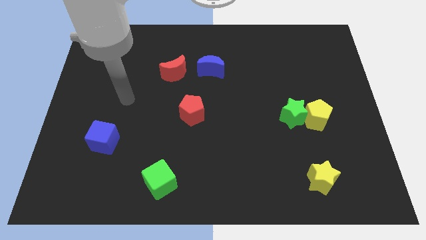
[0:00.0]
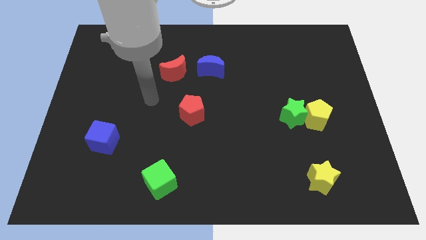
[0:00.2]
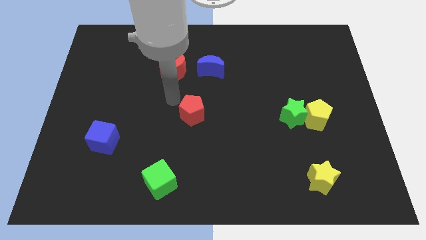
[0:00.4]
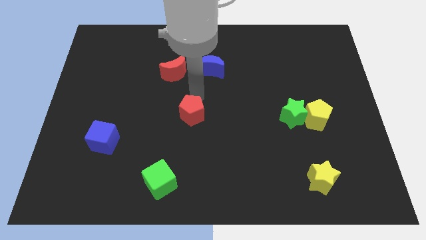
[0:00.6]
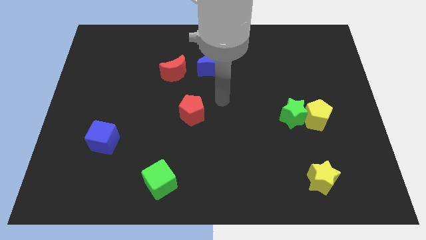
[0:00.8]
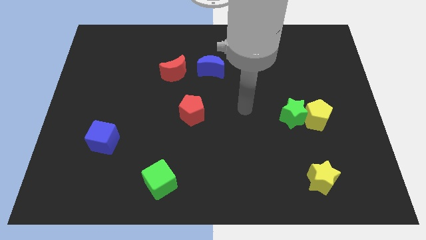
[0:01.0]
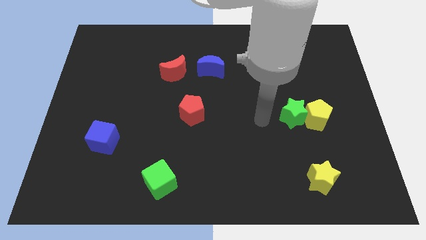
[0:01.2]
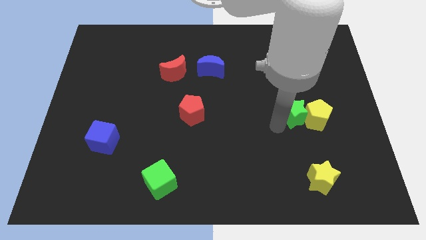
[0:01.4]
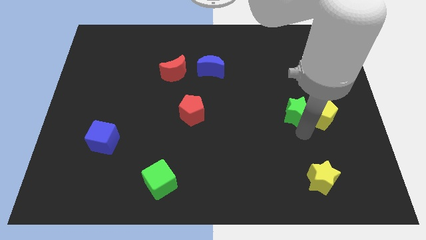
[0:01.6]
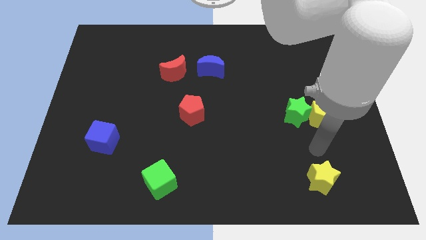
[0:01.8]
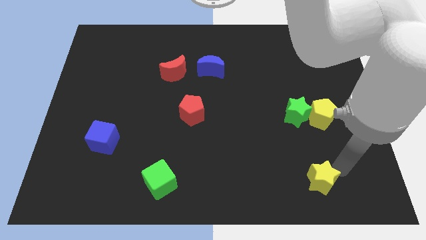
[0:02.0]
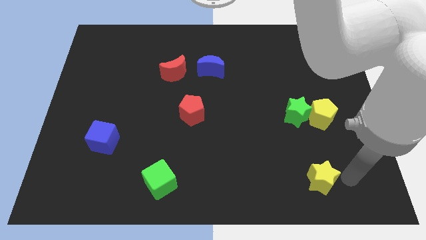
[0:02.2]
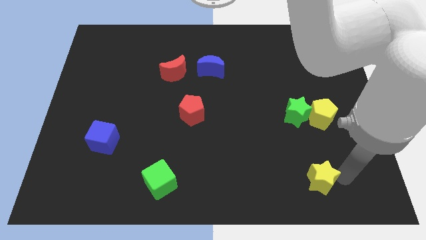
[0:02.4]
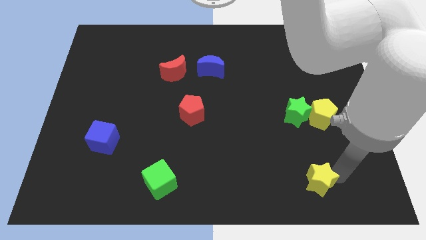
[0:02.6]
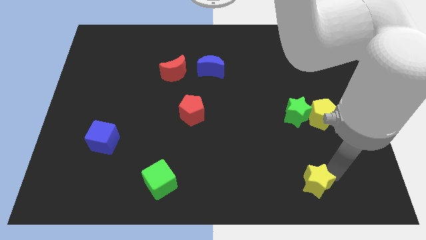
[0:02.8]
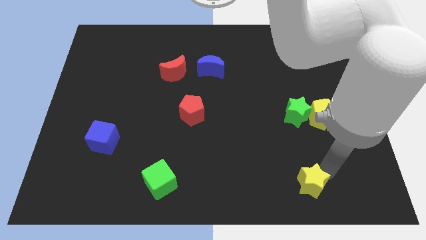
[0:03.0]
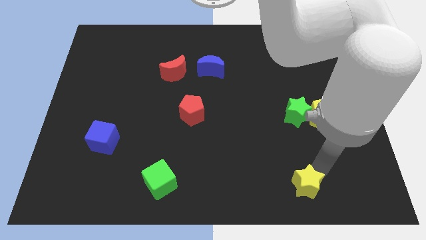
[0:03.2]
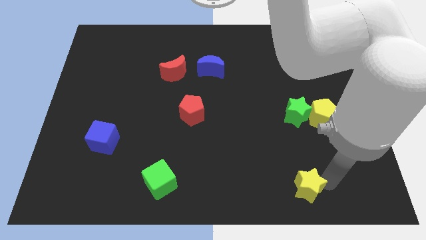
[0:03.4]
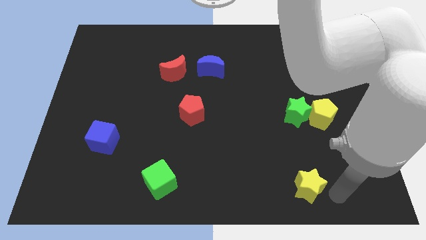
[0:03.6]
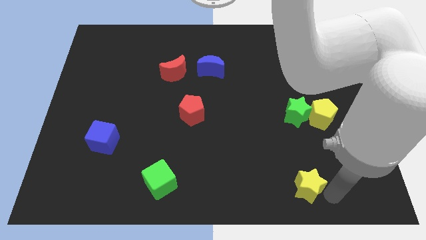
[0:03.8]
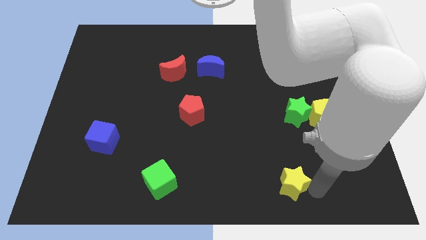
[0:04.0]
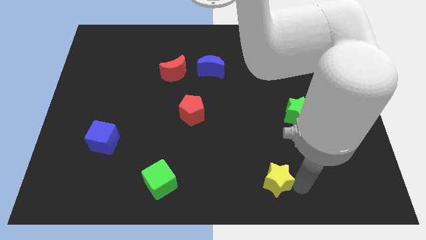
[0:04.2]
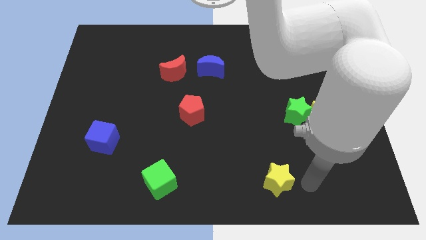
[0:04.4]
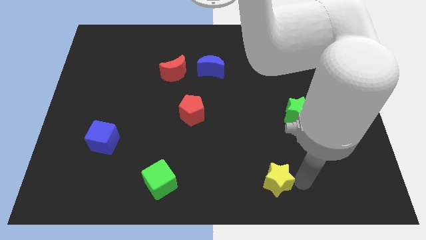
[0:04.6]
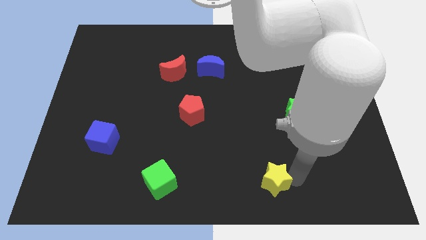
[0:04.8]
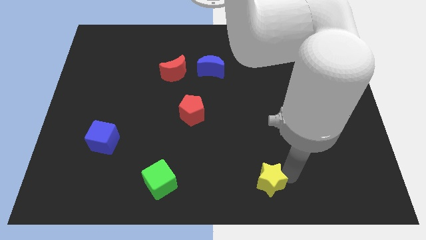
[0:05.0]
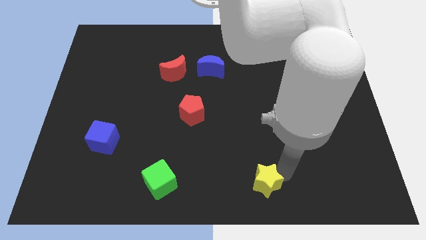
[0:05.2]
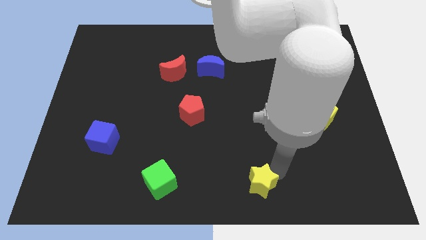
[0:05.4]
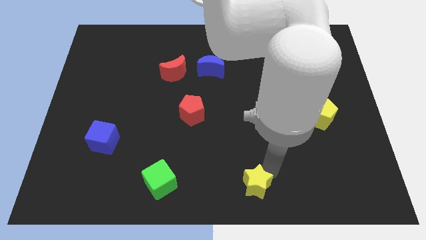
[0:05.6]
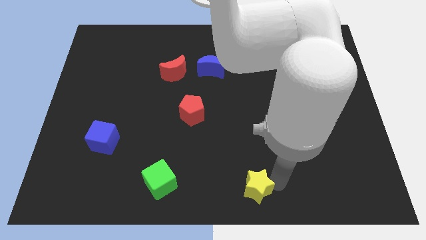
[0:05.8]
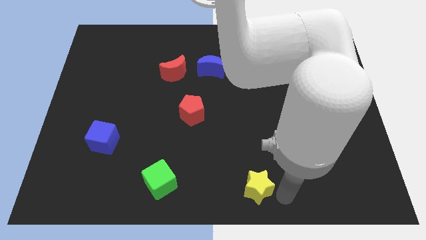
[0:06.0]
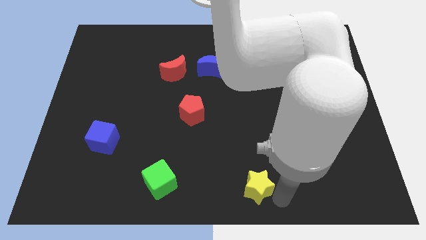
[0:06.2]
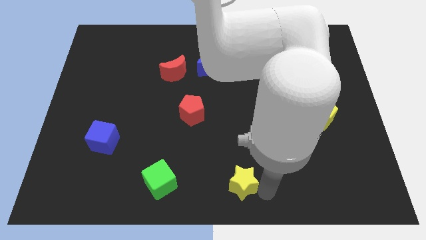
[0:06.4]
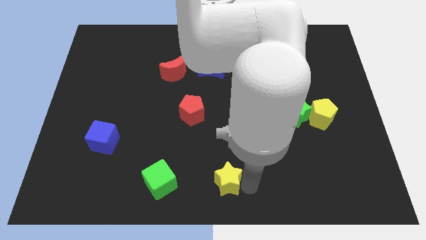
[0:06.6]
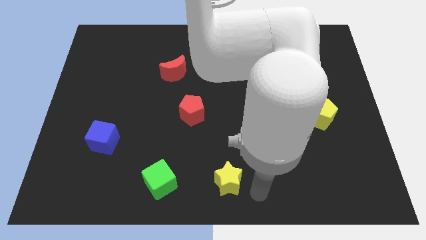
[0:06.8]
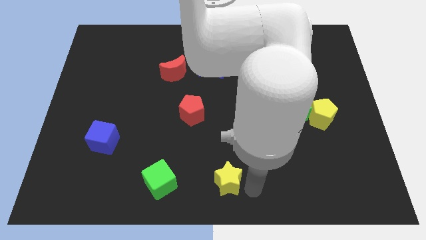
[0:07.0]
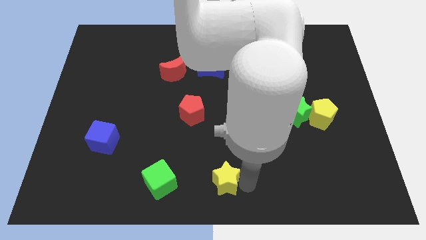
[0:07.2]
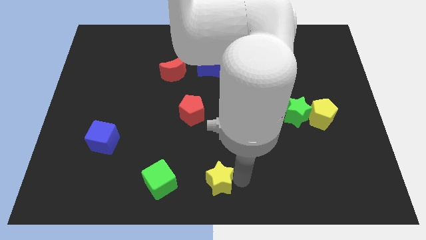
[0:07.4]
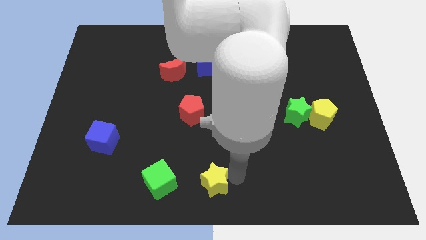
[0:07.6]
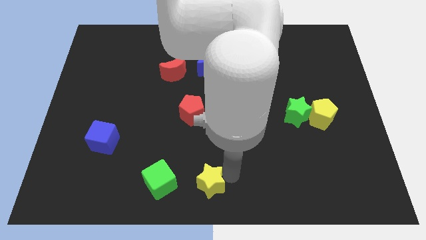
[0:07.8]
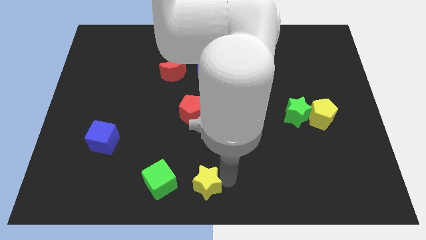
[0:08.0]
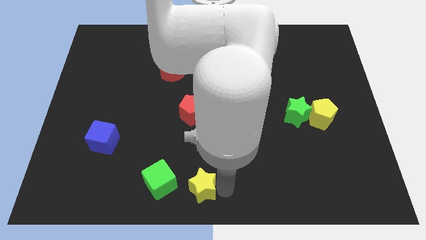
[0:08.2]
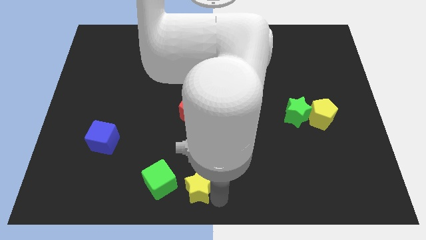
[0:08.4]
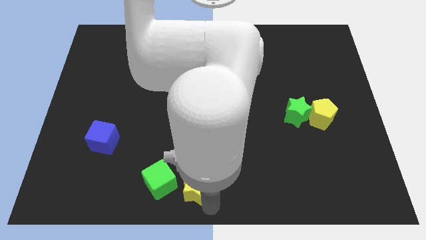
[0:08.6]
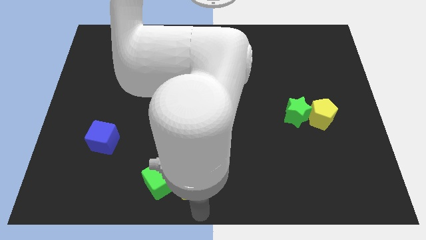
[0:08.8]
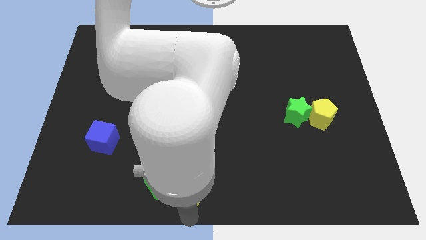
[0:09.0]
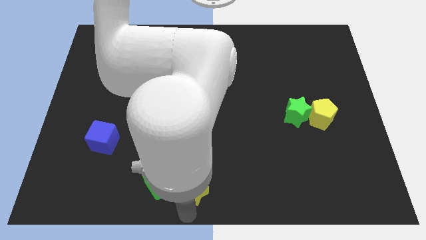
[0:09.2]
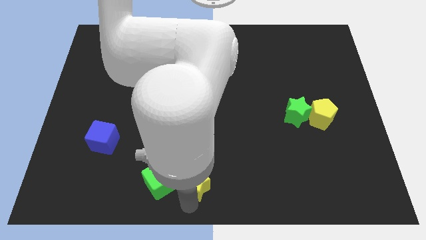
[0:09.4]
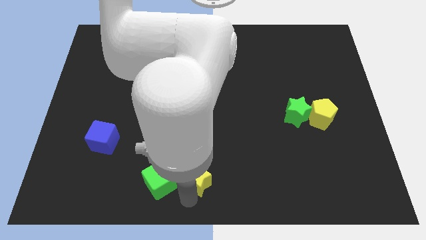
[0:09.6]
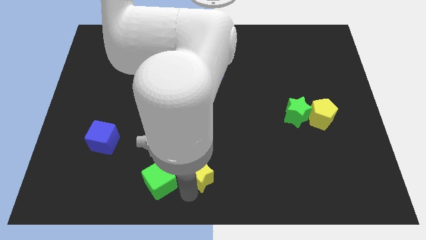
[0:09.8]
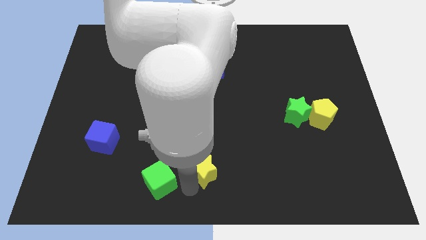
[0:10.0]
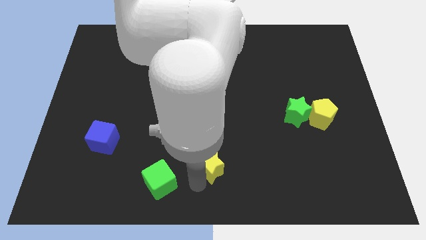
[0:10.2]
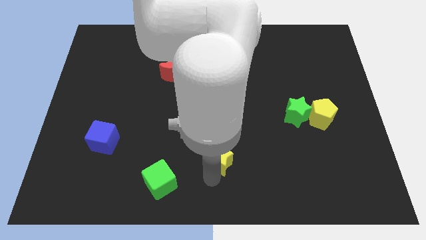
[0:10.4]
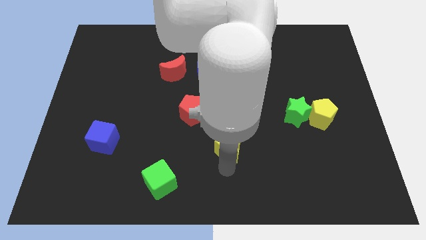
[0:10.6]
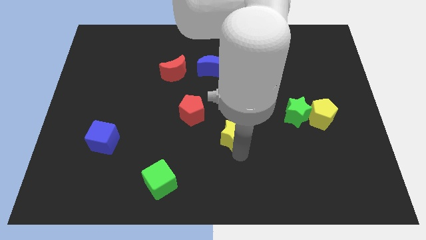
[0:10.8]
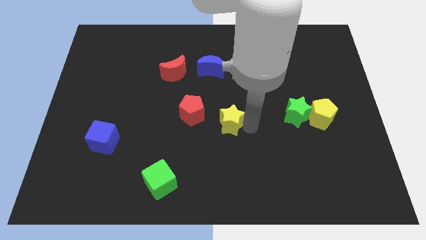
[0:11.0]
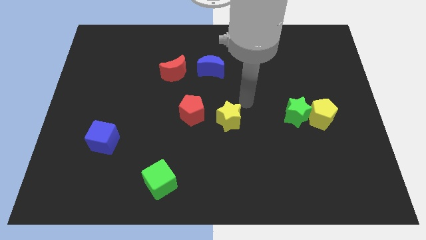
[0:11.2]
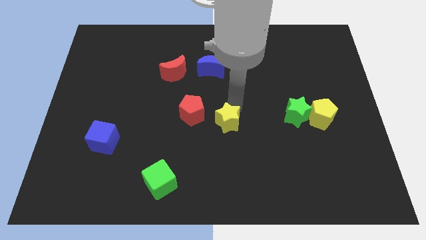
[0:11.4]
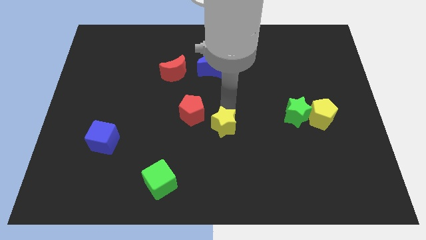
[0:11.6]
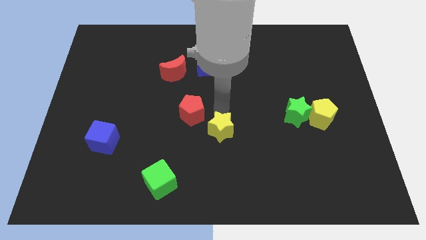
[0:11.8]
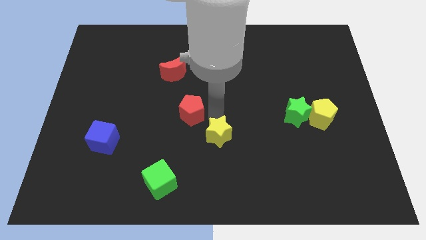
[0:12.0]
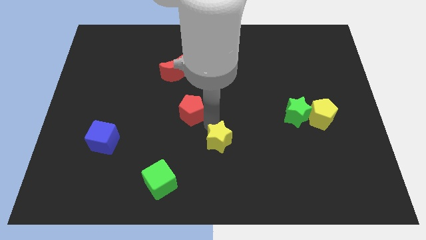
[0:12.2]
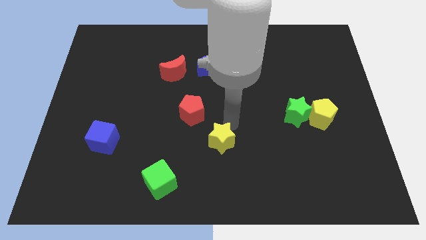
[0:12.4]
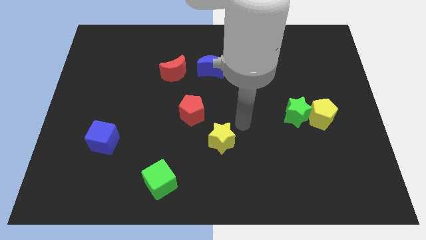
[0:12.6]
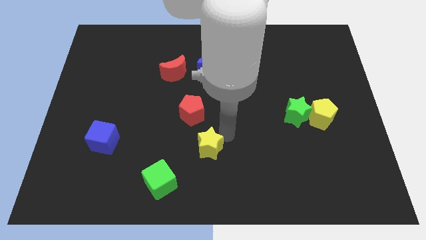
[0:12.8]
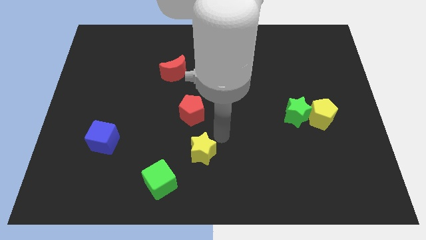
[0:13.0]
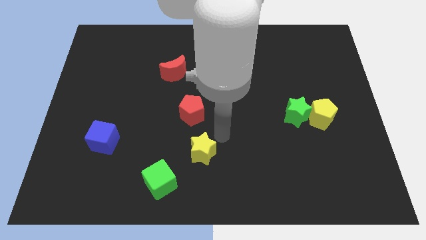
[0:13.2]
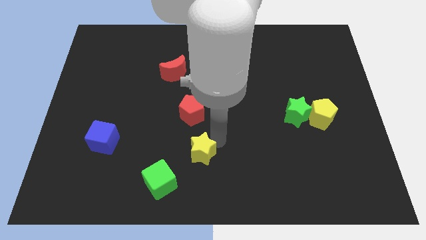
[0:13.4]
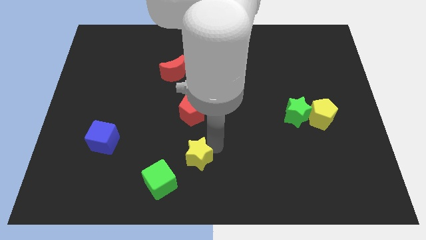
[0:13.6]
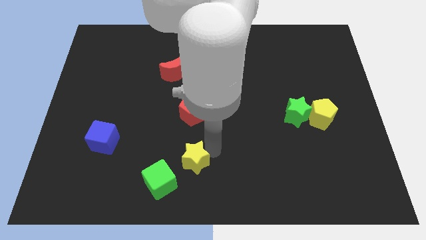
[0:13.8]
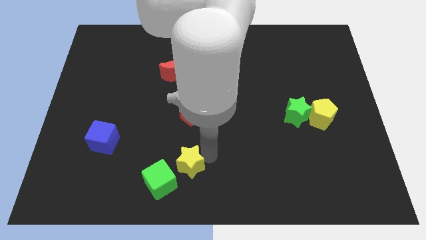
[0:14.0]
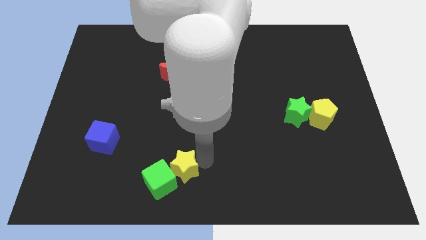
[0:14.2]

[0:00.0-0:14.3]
push the yellow star next to the green cube
